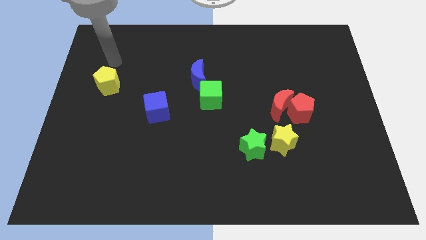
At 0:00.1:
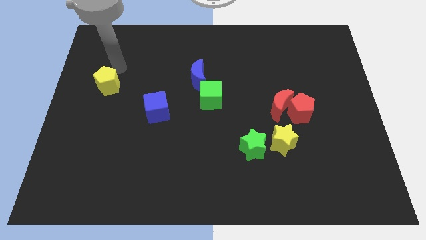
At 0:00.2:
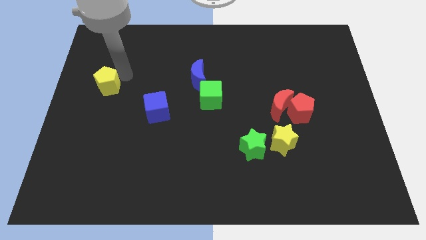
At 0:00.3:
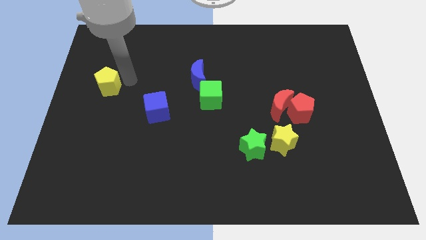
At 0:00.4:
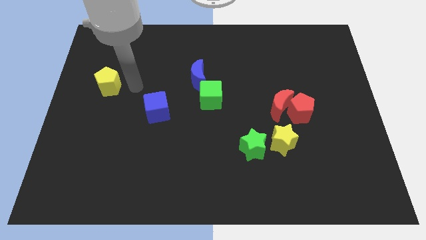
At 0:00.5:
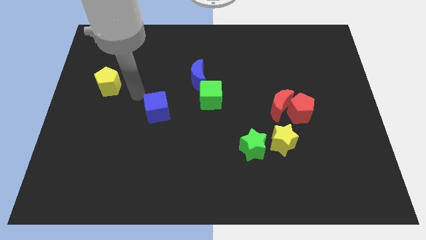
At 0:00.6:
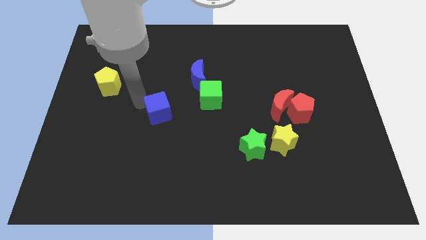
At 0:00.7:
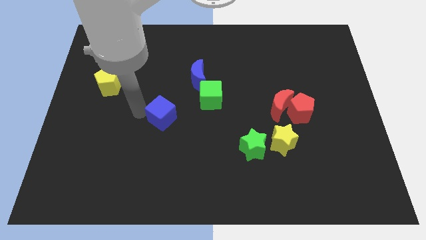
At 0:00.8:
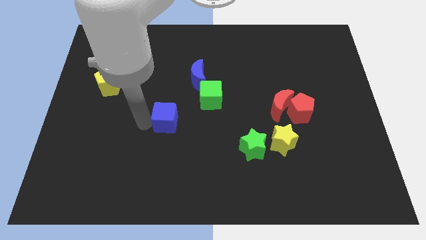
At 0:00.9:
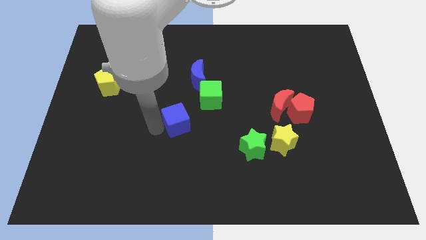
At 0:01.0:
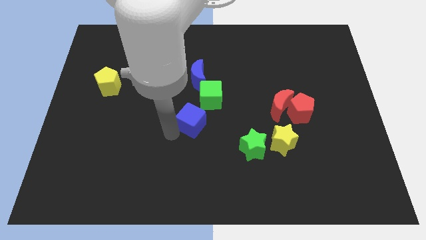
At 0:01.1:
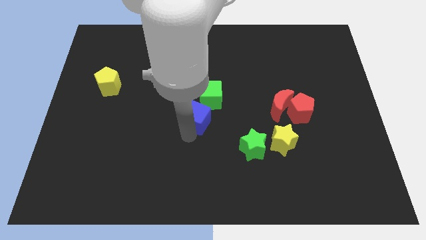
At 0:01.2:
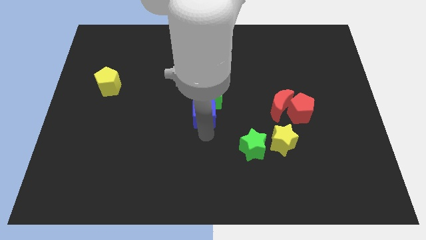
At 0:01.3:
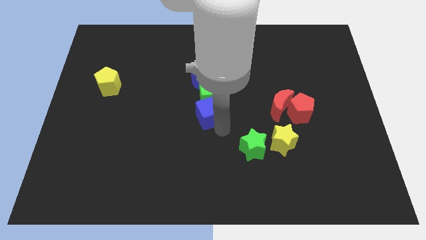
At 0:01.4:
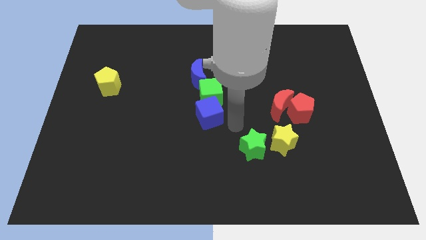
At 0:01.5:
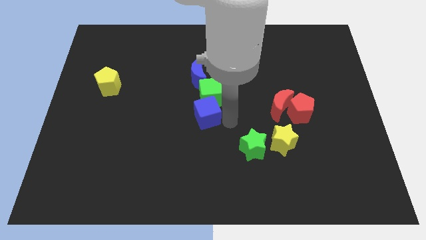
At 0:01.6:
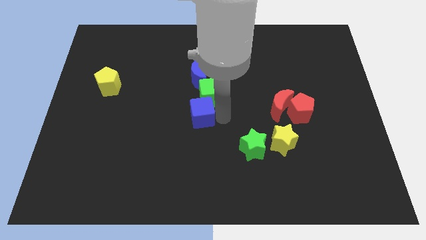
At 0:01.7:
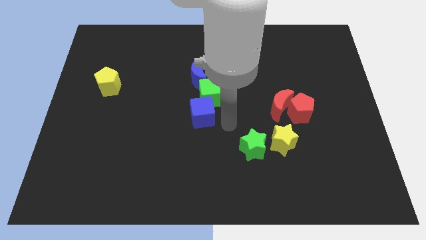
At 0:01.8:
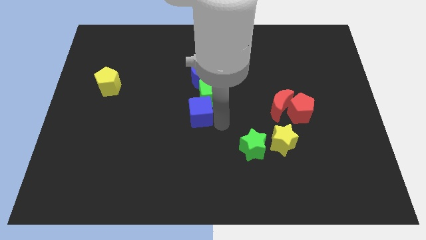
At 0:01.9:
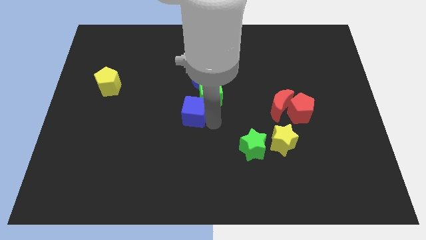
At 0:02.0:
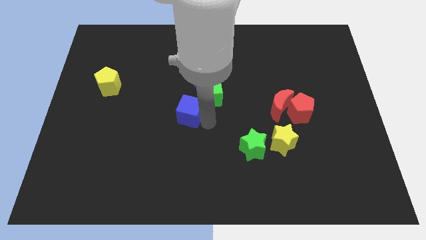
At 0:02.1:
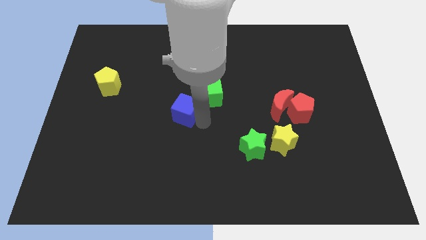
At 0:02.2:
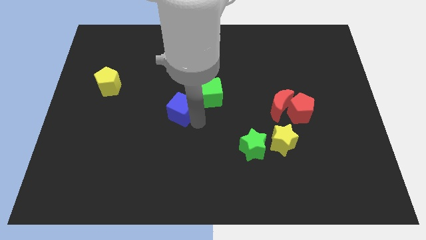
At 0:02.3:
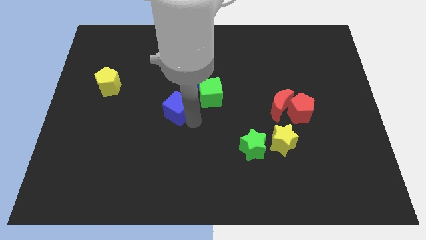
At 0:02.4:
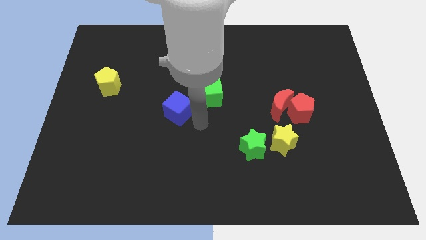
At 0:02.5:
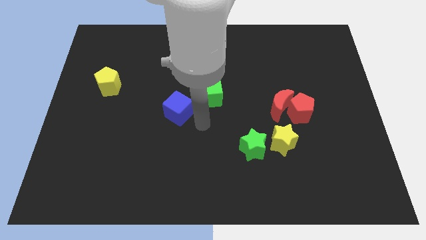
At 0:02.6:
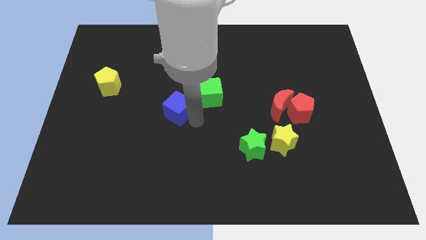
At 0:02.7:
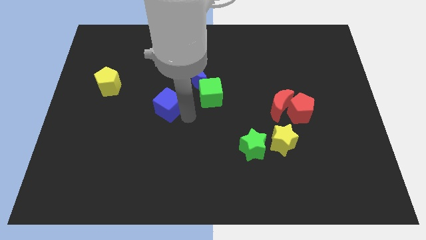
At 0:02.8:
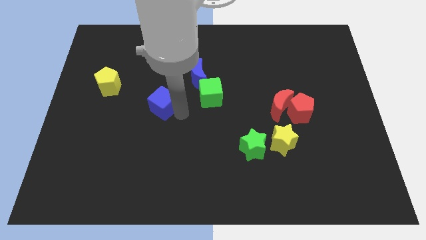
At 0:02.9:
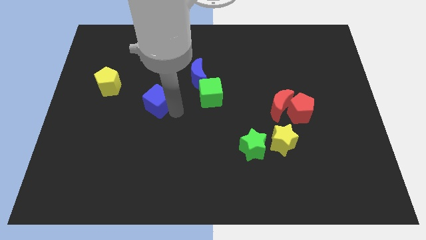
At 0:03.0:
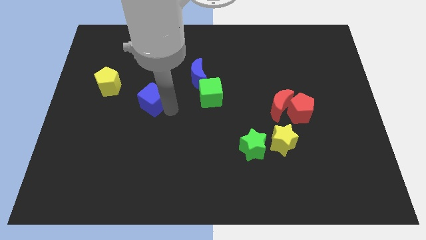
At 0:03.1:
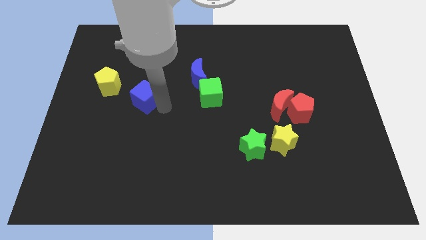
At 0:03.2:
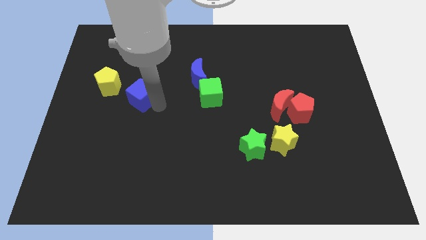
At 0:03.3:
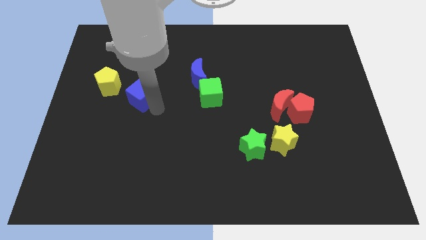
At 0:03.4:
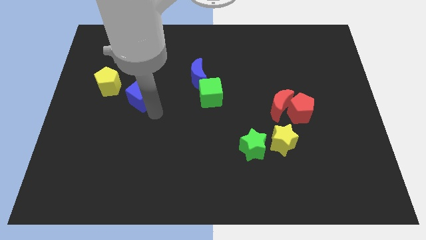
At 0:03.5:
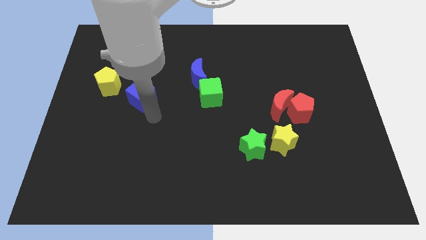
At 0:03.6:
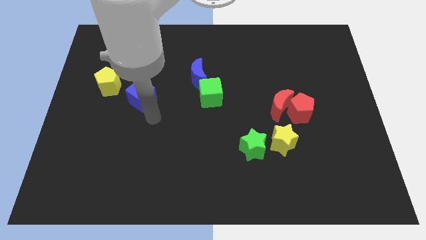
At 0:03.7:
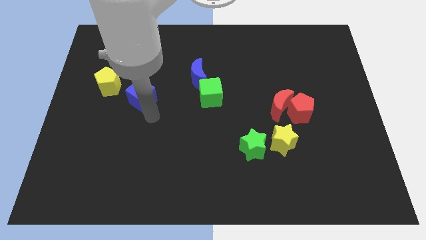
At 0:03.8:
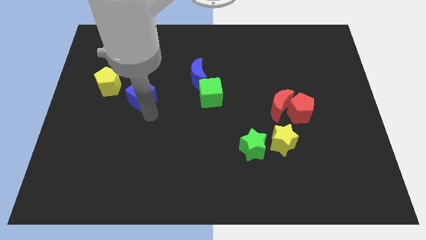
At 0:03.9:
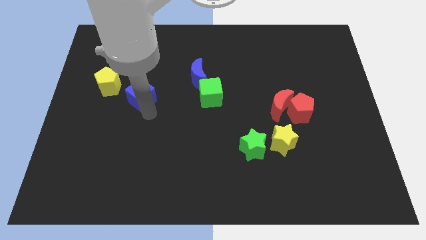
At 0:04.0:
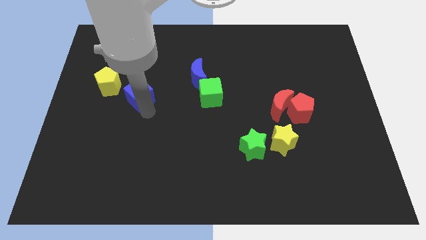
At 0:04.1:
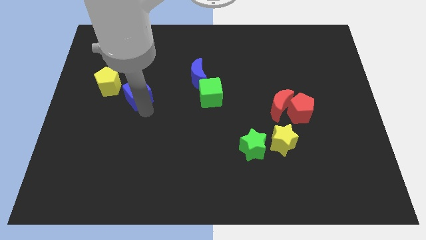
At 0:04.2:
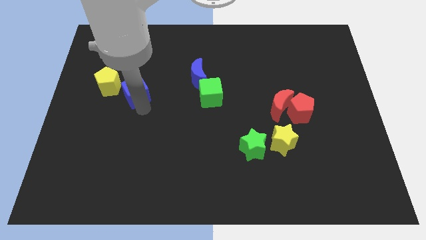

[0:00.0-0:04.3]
slightly slide the blue cube up and then to the left

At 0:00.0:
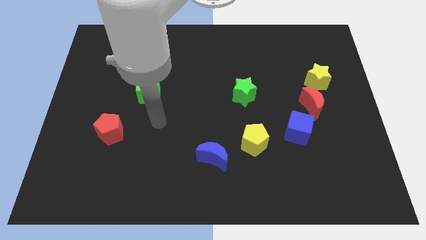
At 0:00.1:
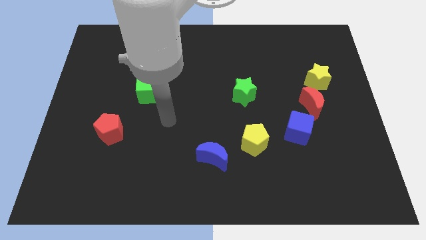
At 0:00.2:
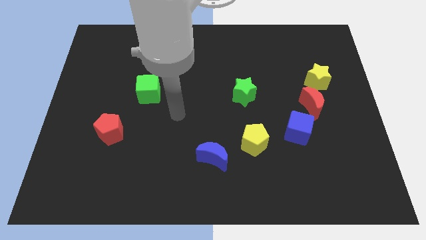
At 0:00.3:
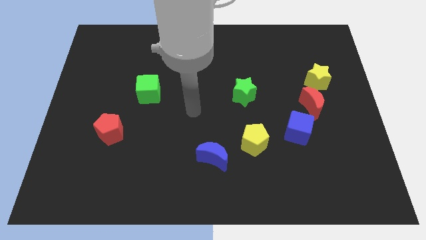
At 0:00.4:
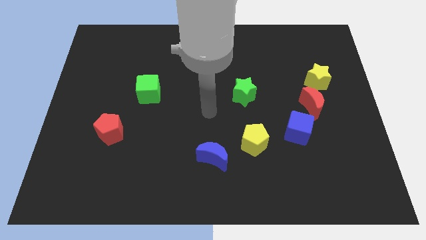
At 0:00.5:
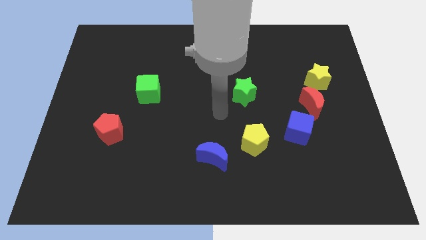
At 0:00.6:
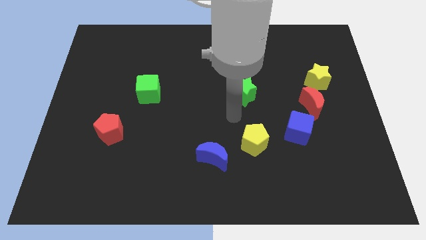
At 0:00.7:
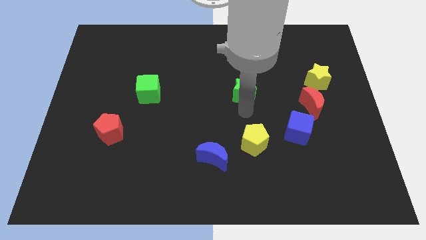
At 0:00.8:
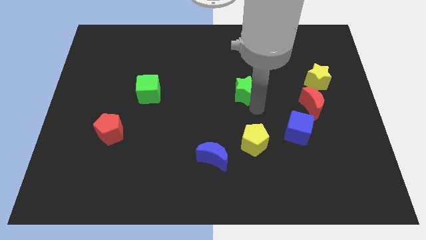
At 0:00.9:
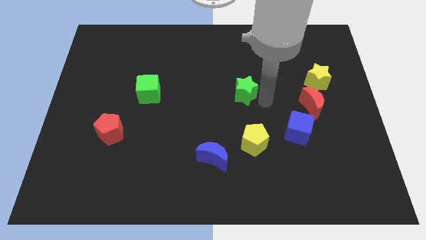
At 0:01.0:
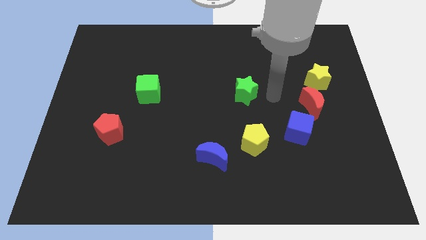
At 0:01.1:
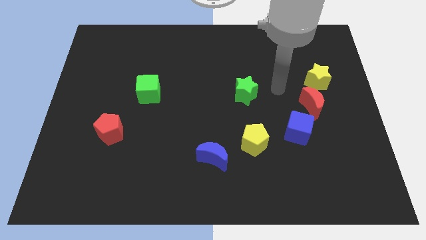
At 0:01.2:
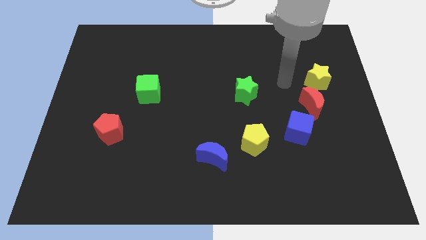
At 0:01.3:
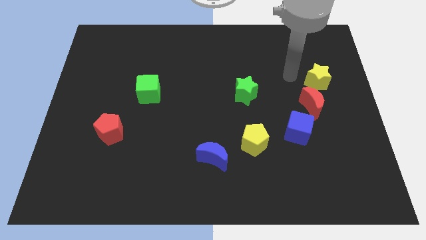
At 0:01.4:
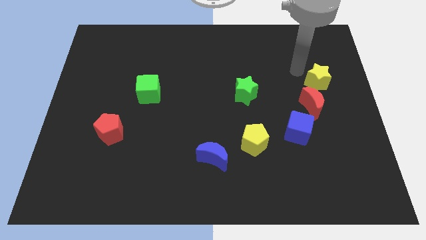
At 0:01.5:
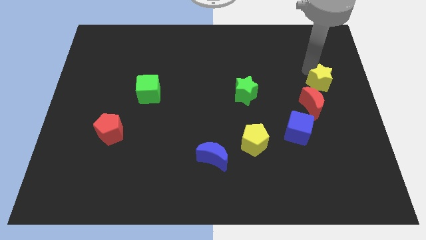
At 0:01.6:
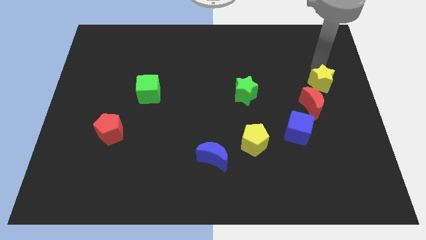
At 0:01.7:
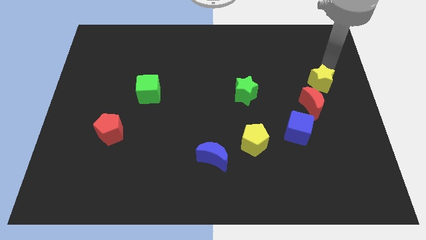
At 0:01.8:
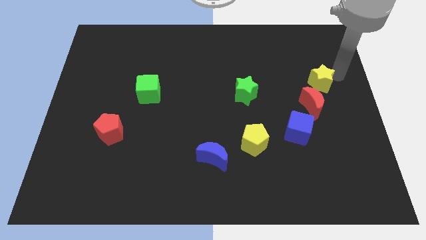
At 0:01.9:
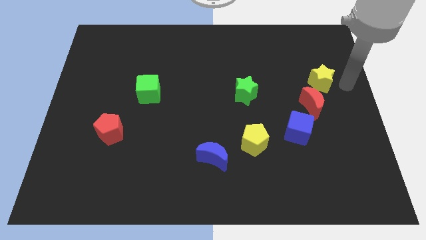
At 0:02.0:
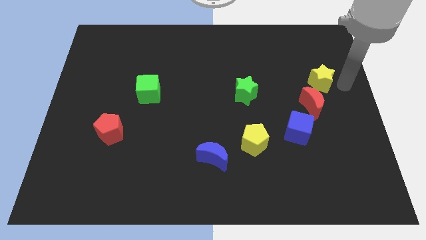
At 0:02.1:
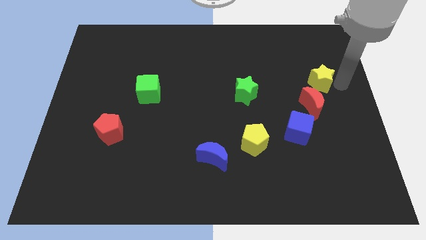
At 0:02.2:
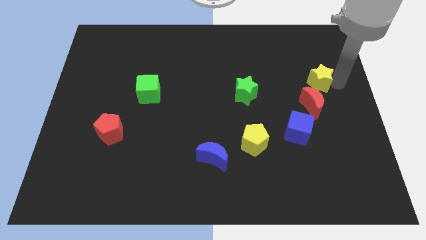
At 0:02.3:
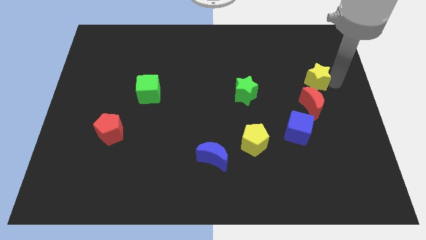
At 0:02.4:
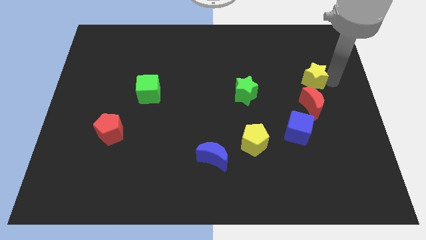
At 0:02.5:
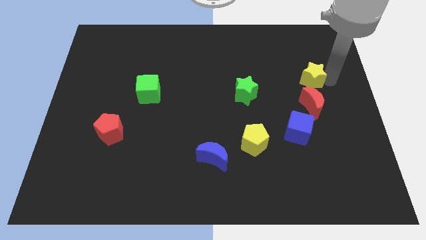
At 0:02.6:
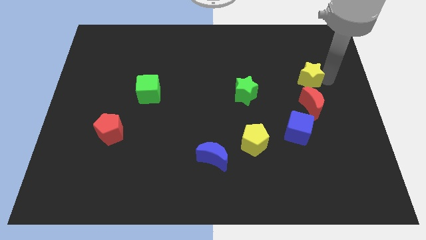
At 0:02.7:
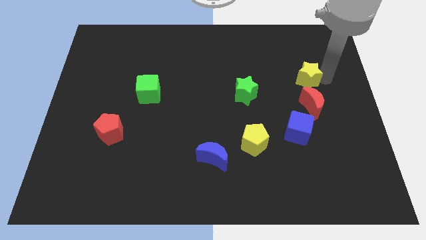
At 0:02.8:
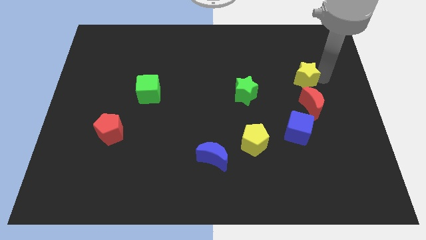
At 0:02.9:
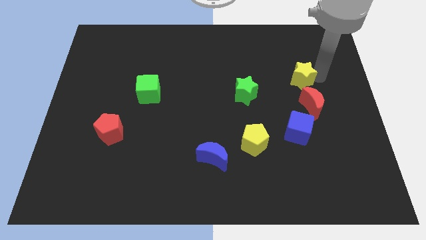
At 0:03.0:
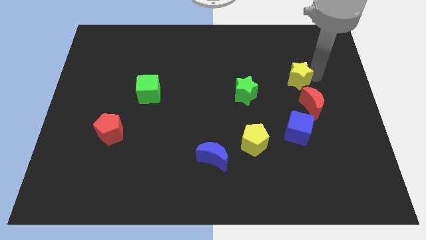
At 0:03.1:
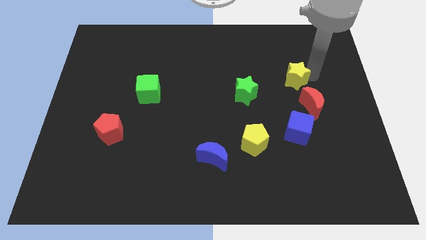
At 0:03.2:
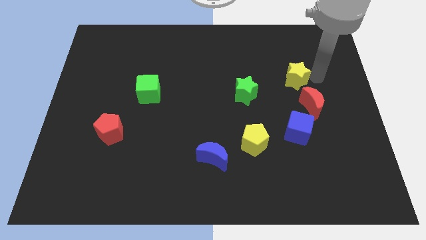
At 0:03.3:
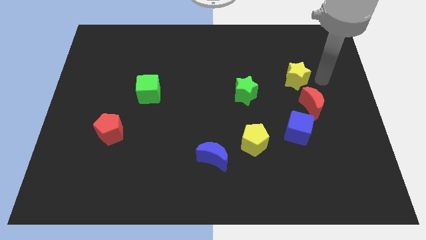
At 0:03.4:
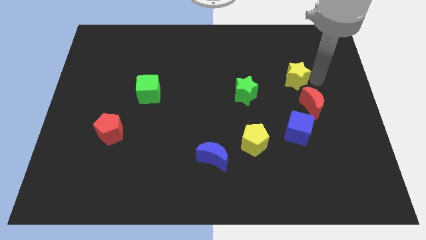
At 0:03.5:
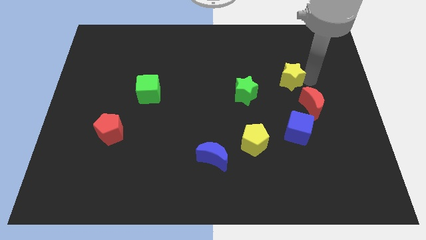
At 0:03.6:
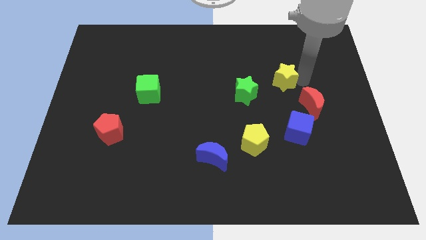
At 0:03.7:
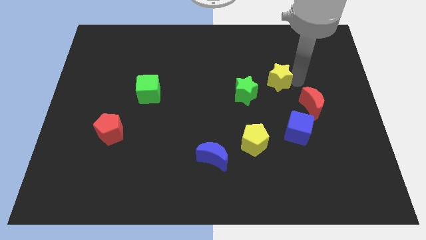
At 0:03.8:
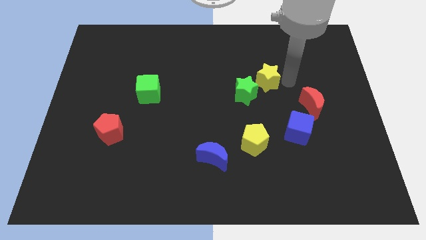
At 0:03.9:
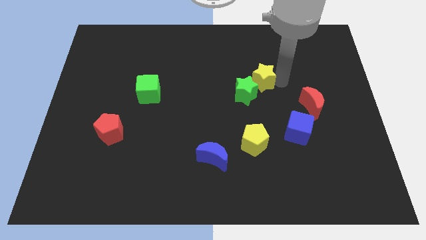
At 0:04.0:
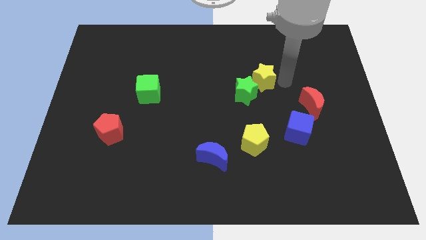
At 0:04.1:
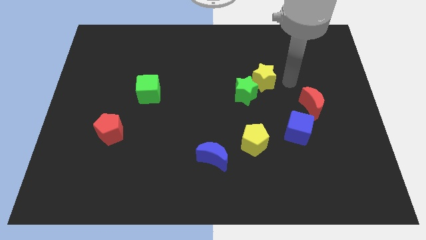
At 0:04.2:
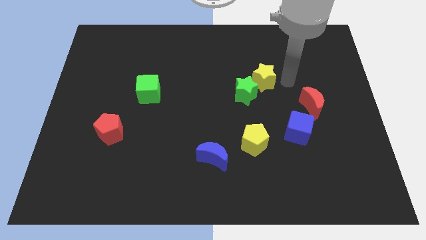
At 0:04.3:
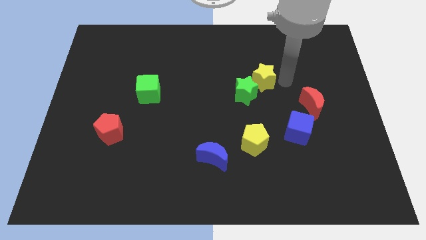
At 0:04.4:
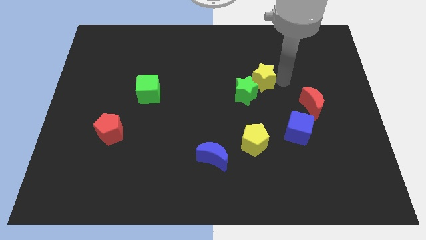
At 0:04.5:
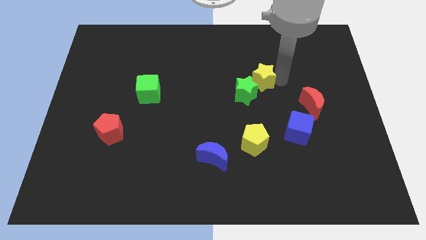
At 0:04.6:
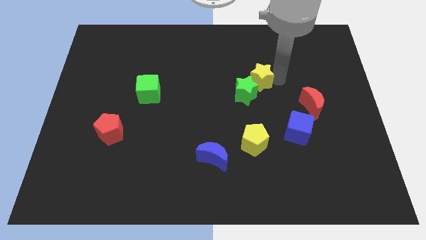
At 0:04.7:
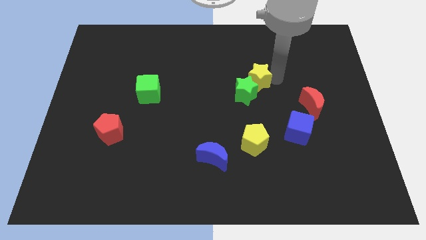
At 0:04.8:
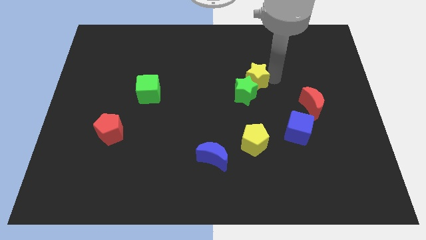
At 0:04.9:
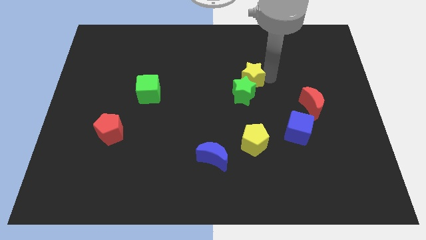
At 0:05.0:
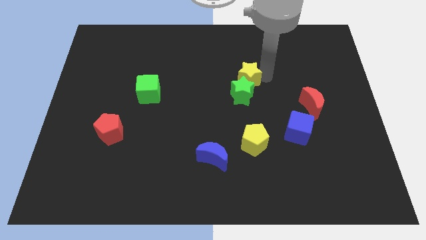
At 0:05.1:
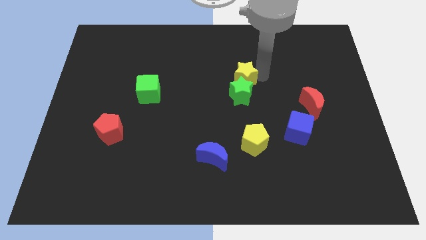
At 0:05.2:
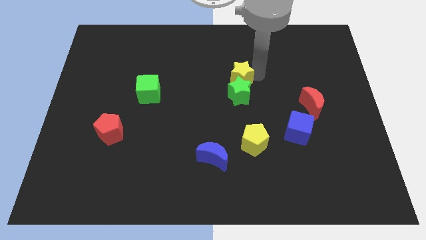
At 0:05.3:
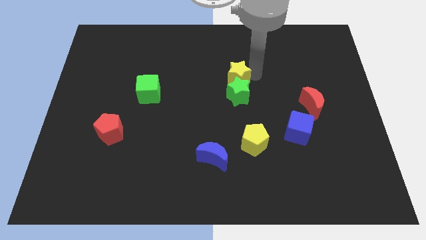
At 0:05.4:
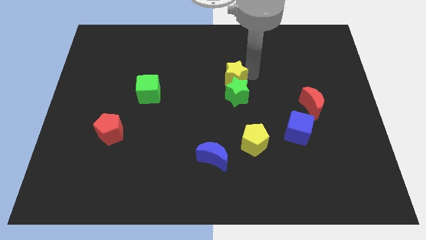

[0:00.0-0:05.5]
move the yellow star left
